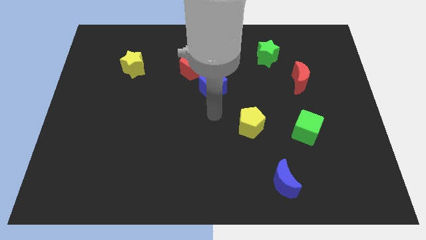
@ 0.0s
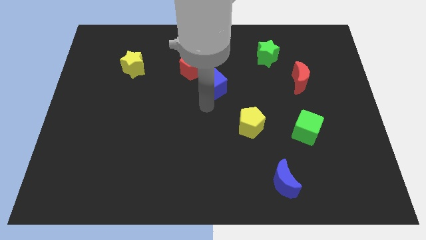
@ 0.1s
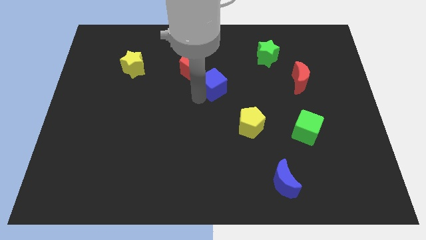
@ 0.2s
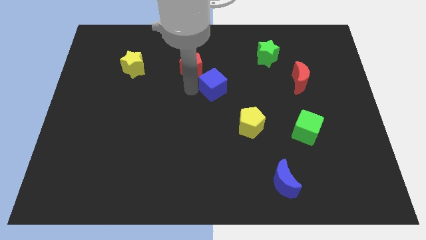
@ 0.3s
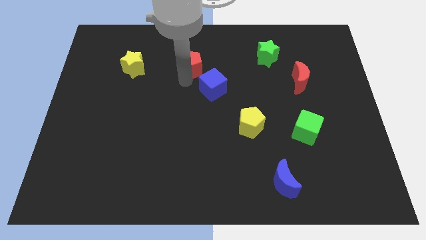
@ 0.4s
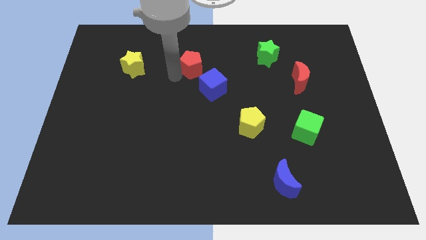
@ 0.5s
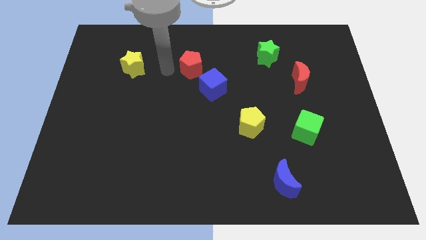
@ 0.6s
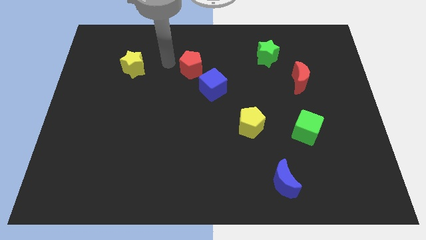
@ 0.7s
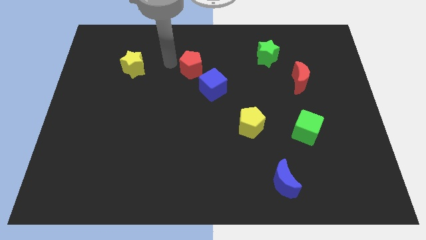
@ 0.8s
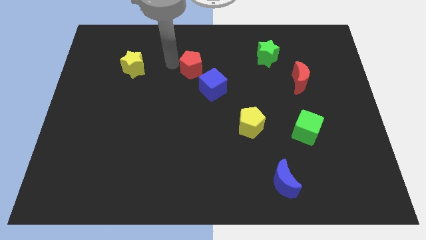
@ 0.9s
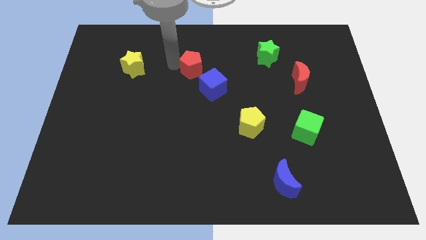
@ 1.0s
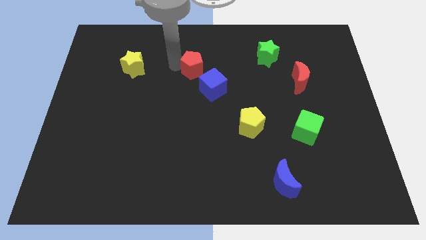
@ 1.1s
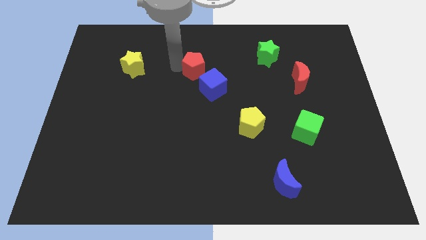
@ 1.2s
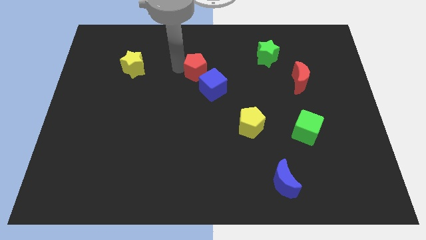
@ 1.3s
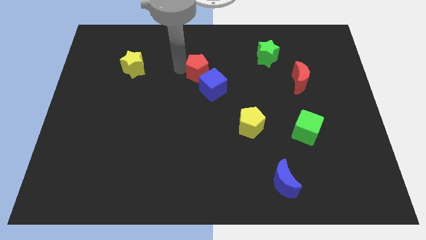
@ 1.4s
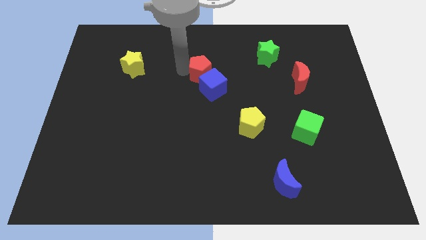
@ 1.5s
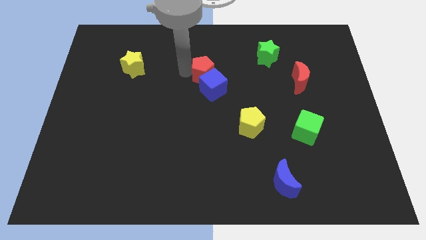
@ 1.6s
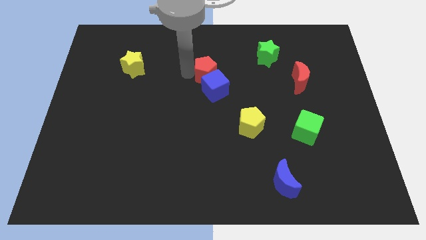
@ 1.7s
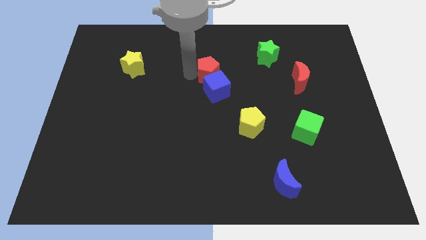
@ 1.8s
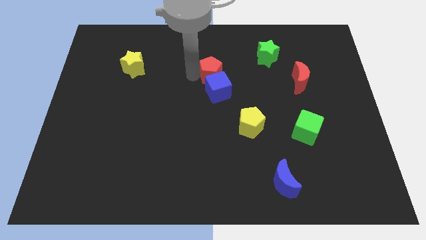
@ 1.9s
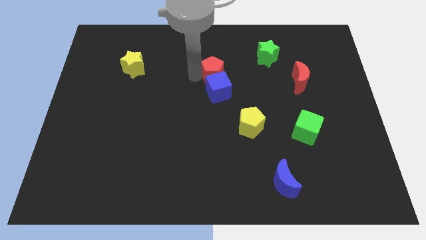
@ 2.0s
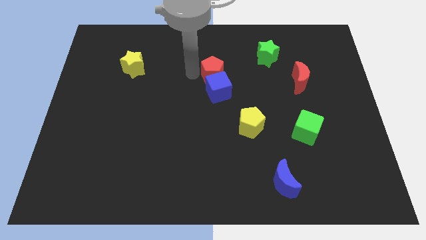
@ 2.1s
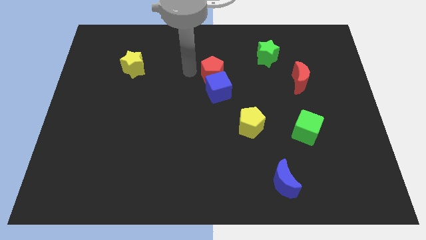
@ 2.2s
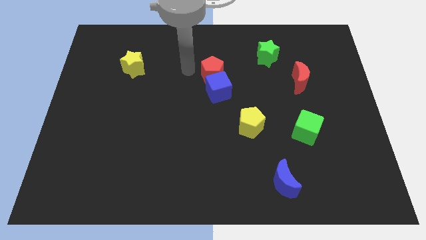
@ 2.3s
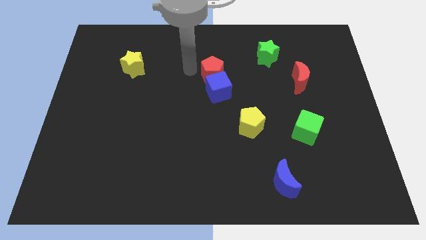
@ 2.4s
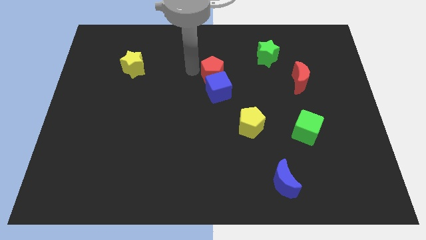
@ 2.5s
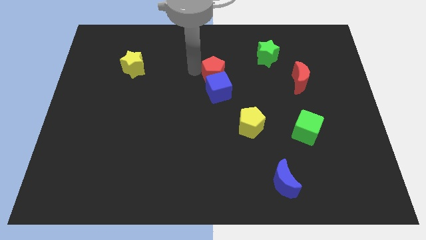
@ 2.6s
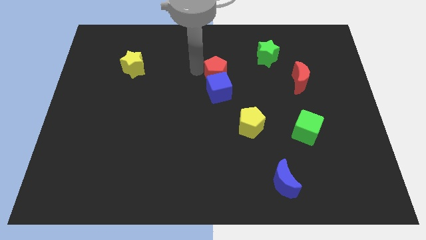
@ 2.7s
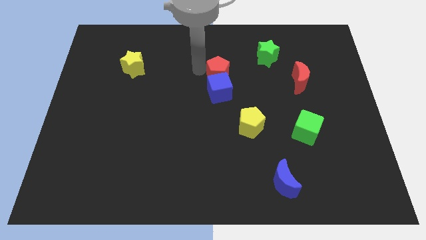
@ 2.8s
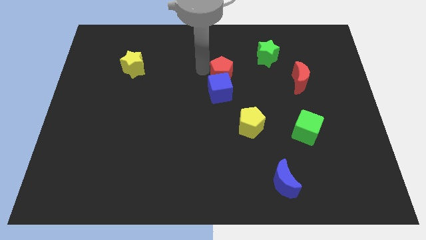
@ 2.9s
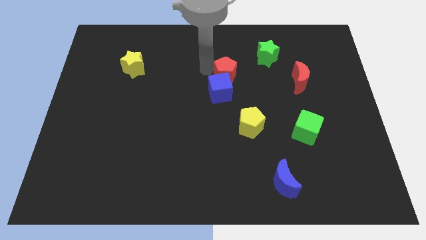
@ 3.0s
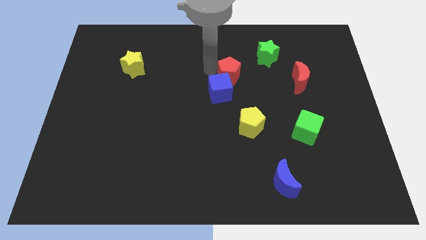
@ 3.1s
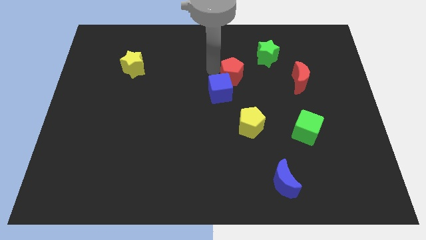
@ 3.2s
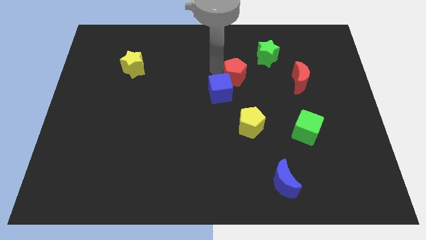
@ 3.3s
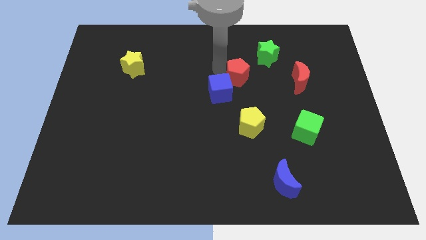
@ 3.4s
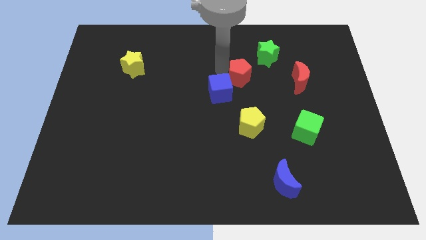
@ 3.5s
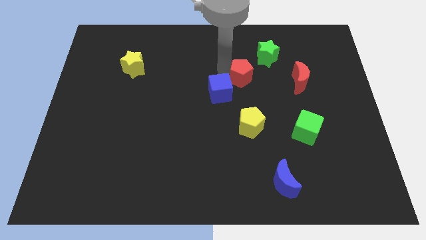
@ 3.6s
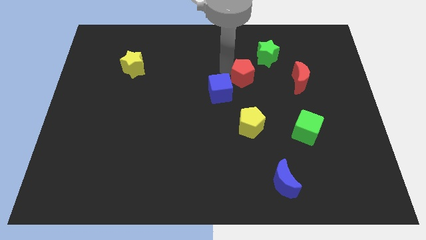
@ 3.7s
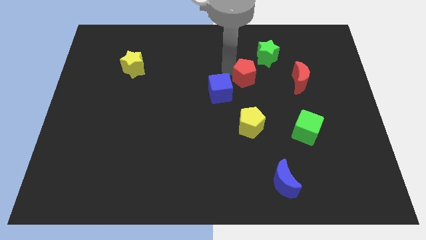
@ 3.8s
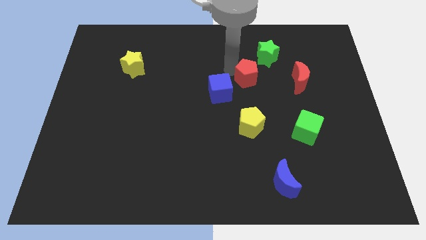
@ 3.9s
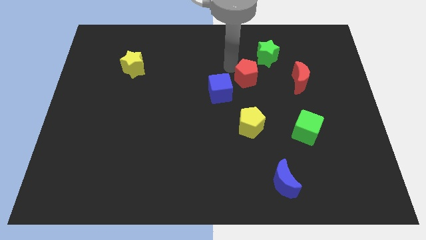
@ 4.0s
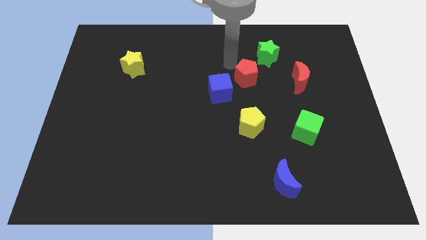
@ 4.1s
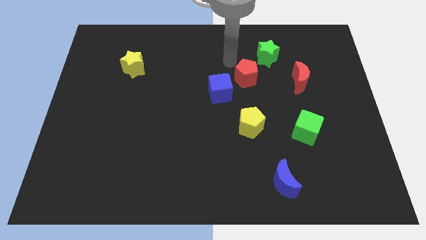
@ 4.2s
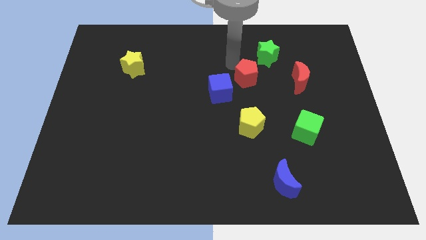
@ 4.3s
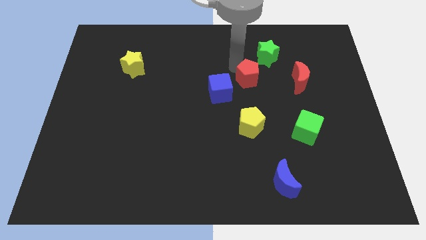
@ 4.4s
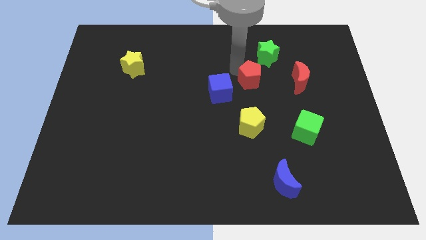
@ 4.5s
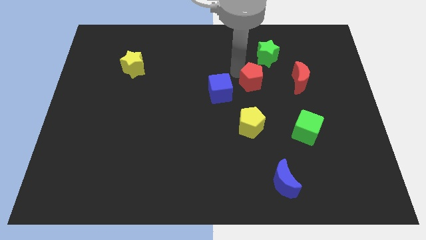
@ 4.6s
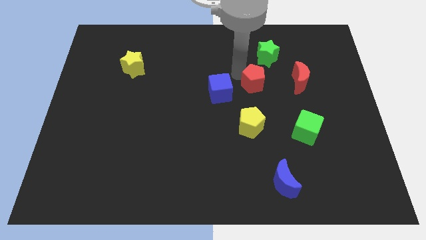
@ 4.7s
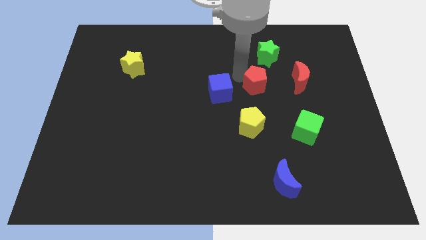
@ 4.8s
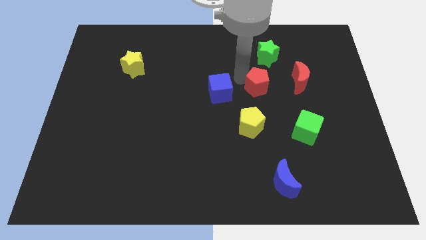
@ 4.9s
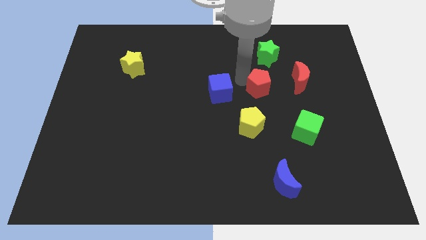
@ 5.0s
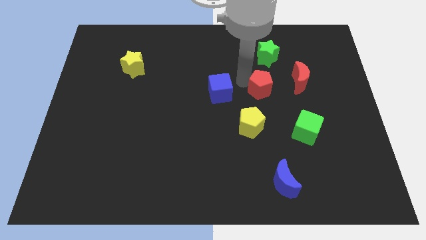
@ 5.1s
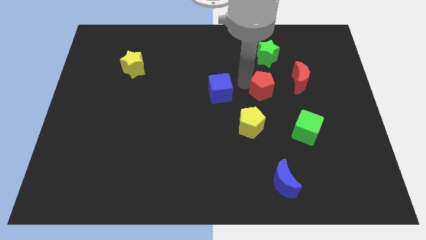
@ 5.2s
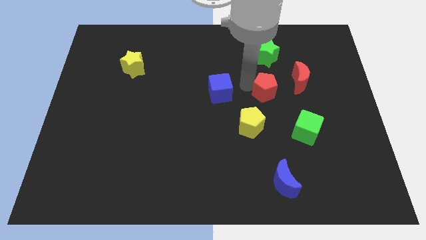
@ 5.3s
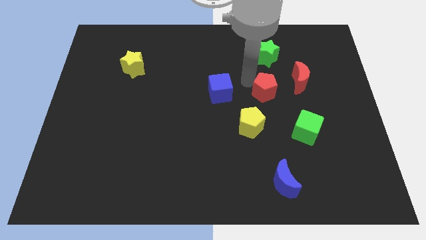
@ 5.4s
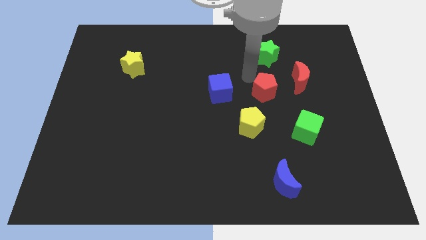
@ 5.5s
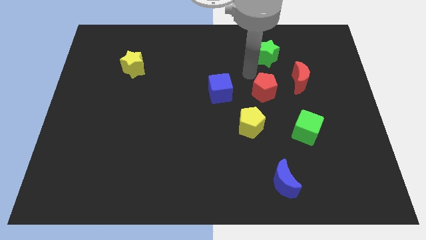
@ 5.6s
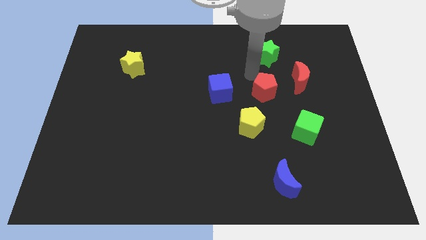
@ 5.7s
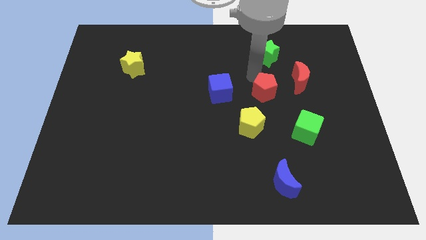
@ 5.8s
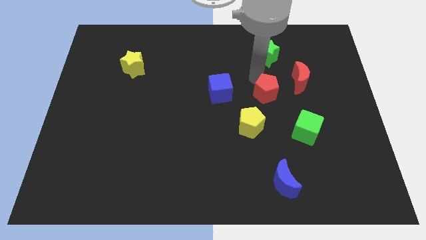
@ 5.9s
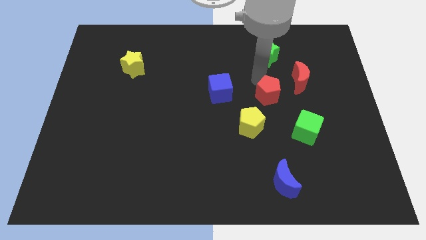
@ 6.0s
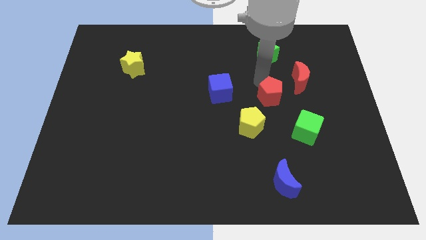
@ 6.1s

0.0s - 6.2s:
move the red pentagon diagonally up and to the left of the green cube
